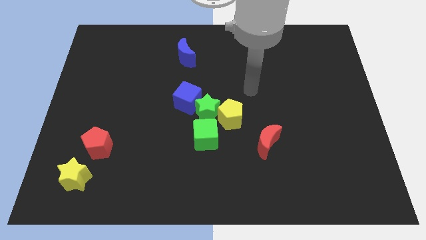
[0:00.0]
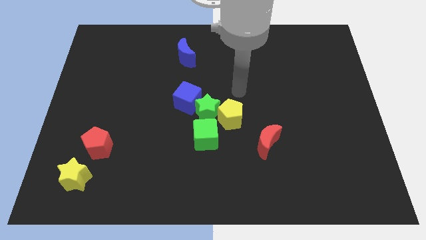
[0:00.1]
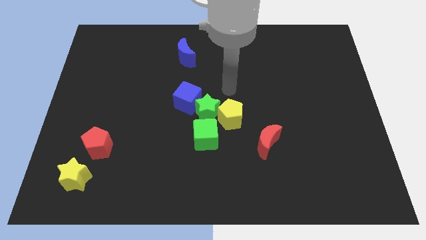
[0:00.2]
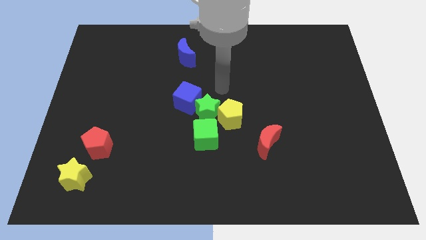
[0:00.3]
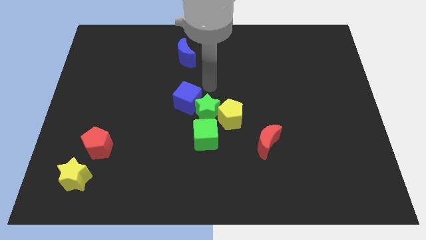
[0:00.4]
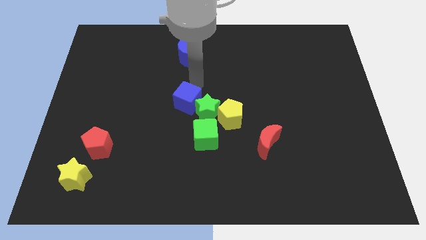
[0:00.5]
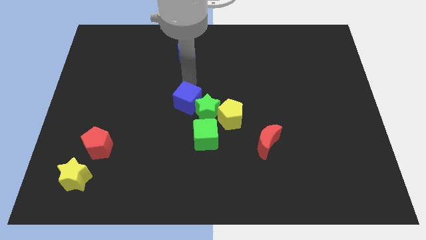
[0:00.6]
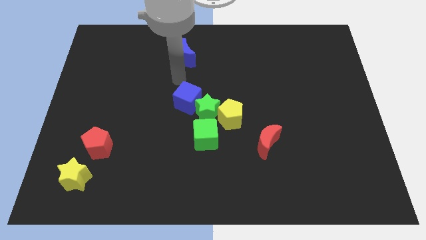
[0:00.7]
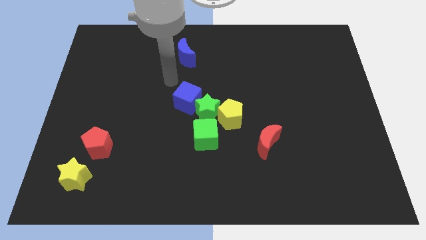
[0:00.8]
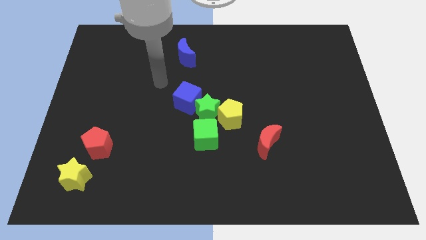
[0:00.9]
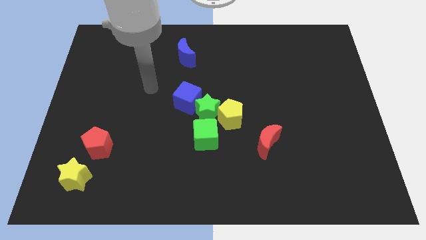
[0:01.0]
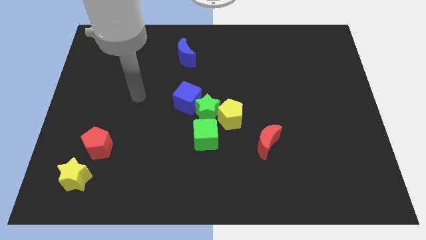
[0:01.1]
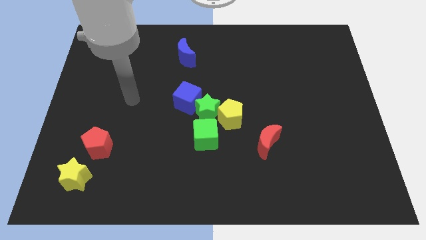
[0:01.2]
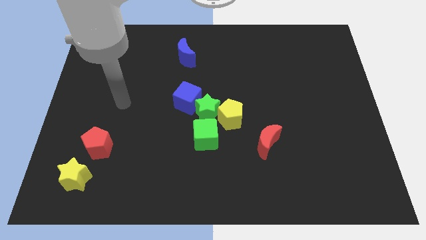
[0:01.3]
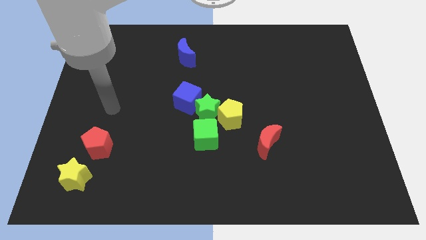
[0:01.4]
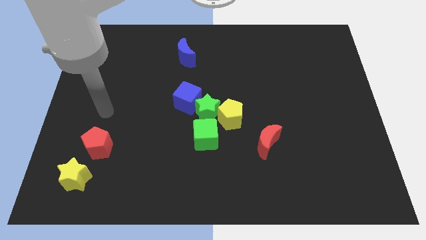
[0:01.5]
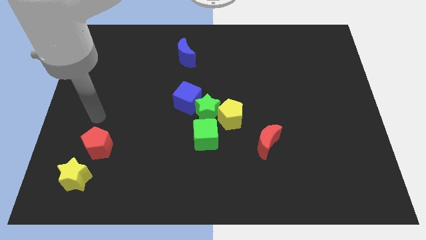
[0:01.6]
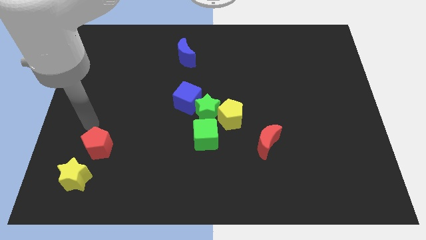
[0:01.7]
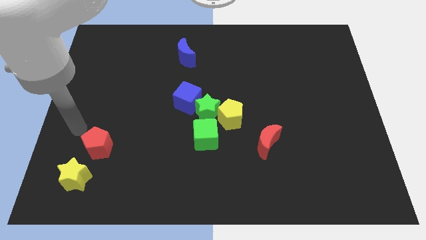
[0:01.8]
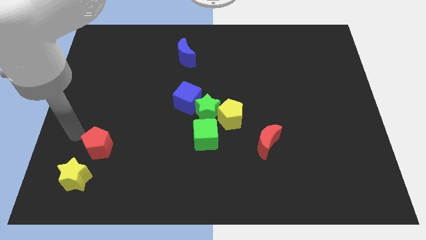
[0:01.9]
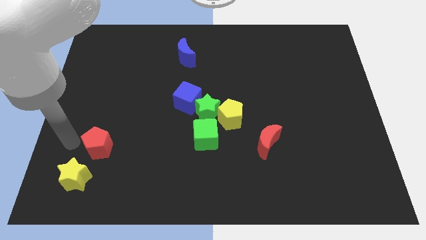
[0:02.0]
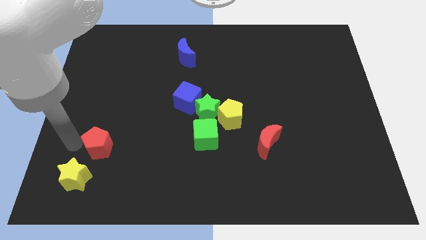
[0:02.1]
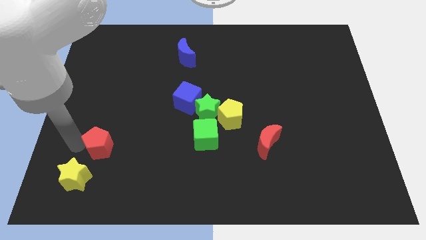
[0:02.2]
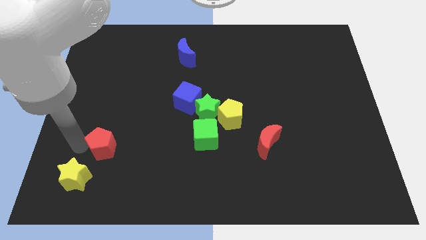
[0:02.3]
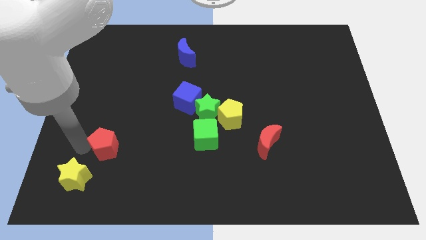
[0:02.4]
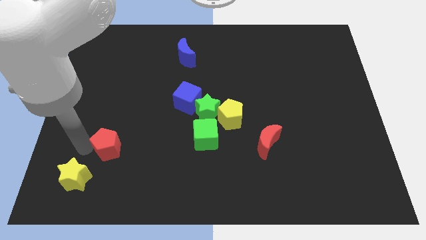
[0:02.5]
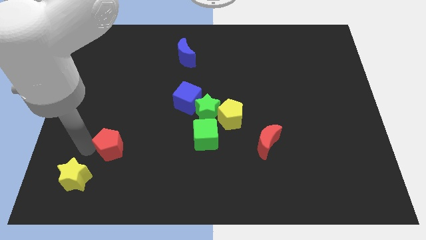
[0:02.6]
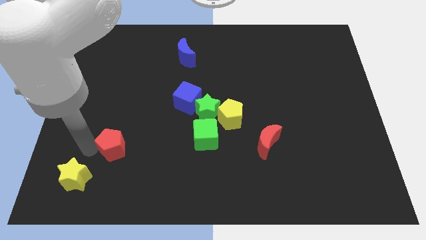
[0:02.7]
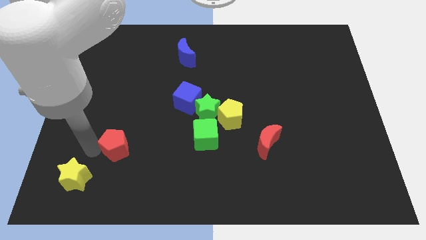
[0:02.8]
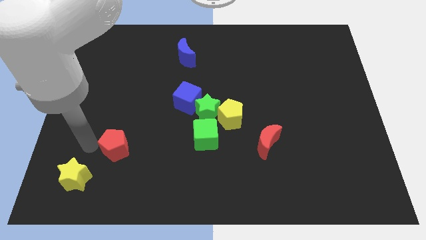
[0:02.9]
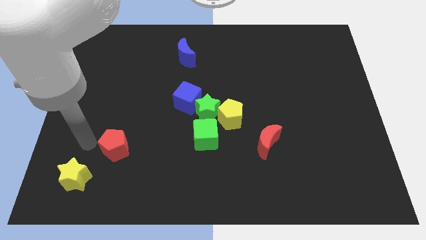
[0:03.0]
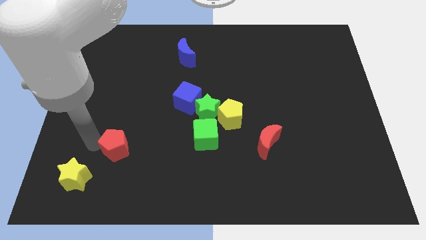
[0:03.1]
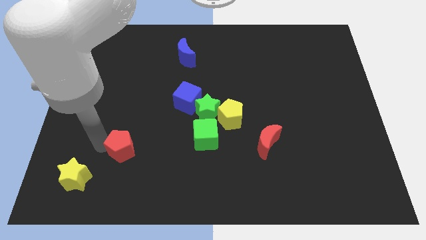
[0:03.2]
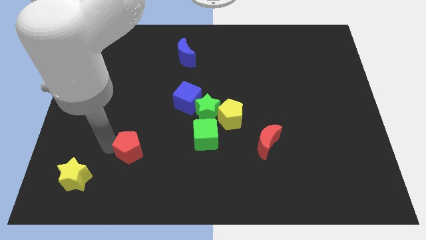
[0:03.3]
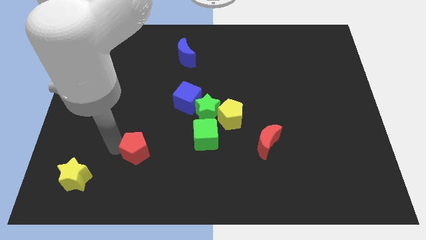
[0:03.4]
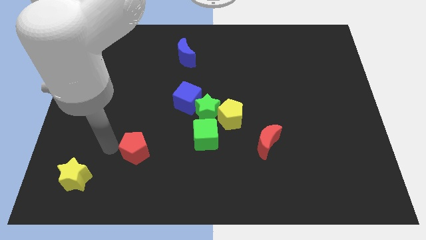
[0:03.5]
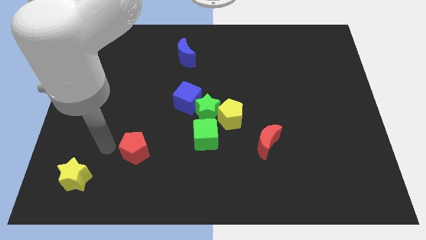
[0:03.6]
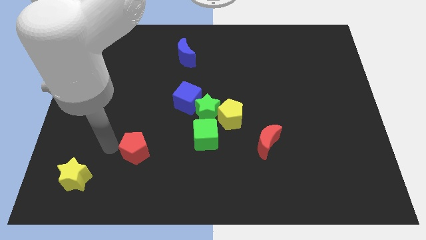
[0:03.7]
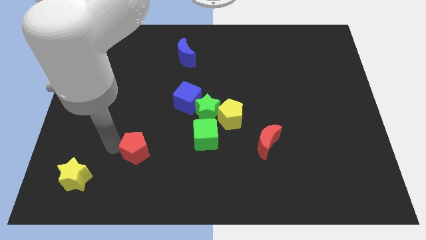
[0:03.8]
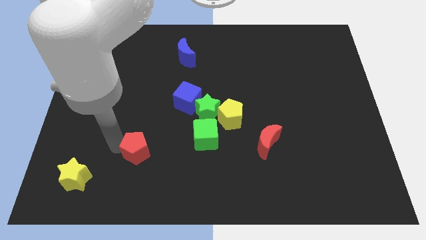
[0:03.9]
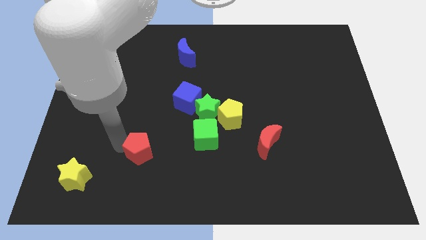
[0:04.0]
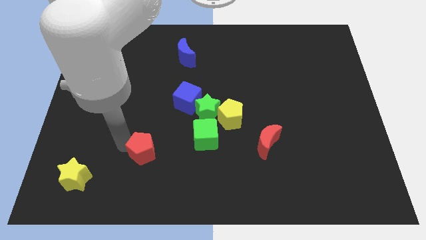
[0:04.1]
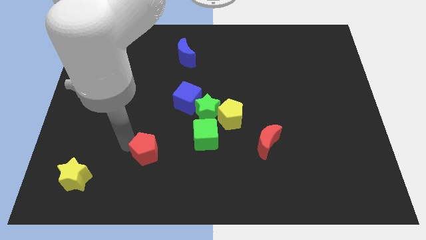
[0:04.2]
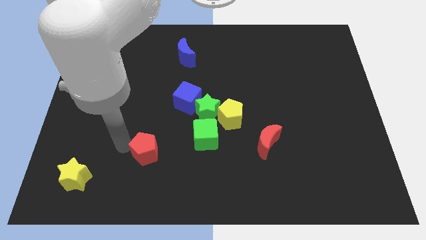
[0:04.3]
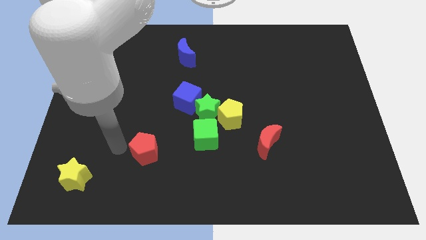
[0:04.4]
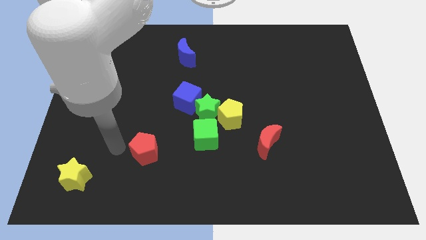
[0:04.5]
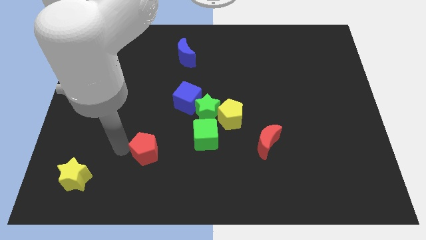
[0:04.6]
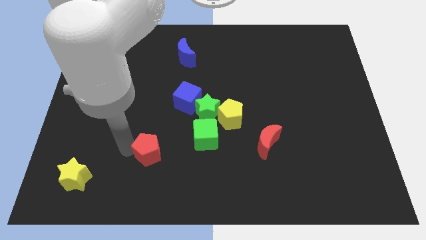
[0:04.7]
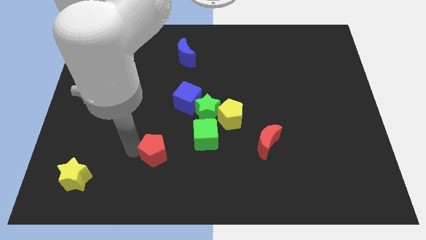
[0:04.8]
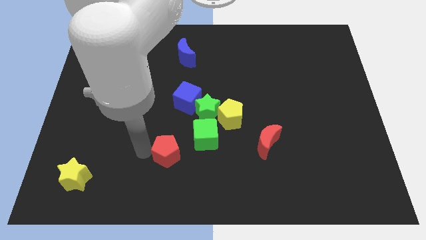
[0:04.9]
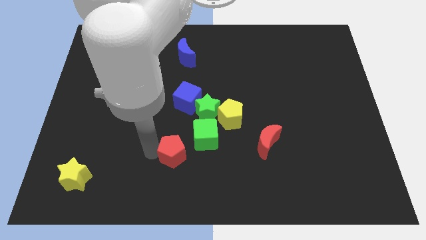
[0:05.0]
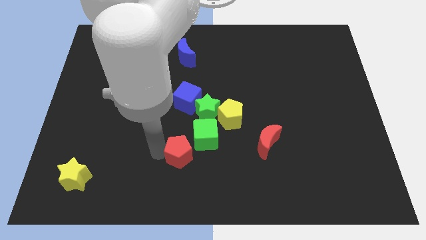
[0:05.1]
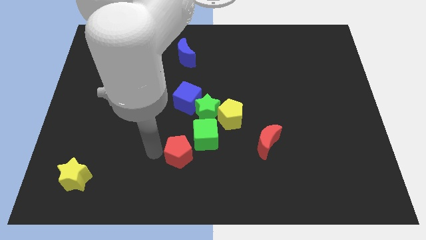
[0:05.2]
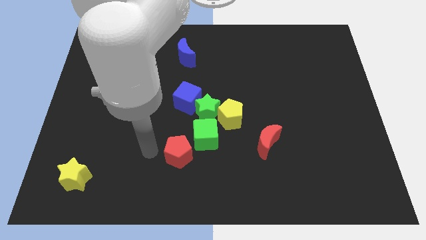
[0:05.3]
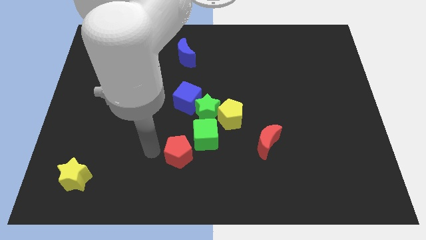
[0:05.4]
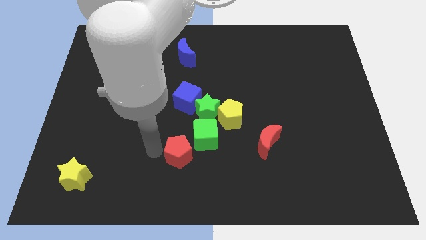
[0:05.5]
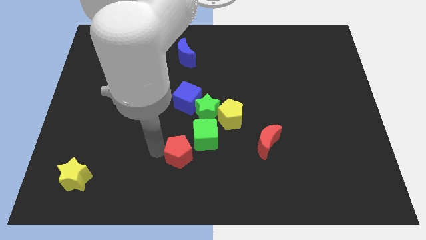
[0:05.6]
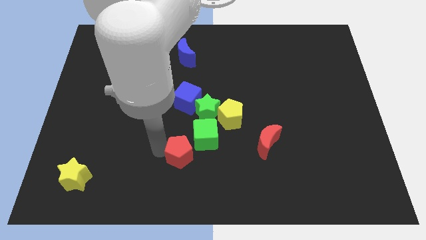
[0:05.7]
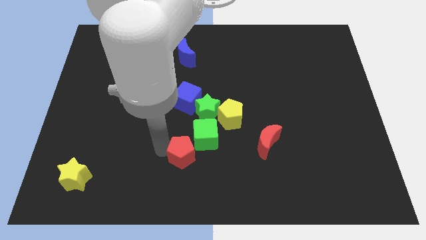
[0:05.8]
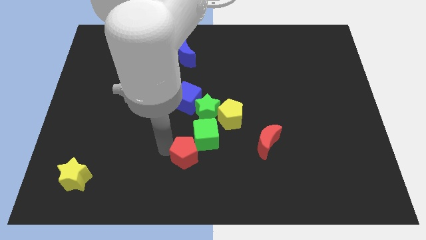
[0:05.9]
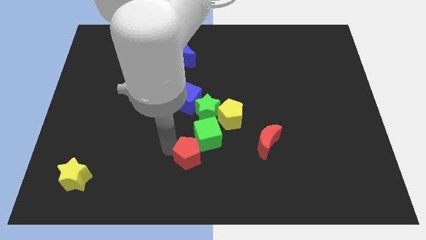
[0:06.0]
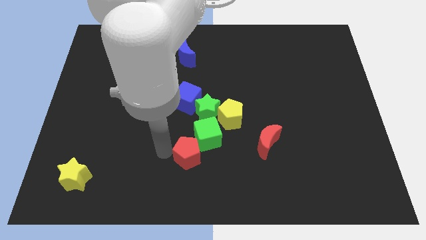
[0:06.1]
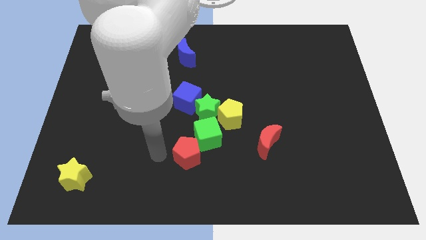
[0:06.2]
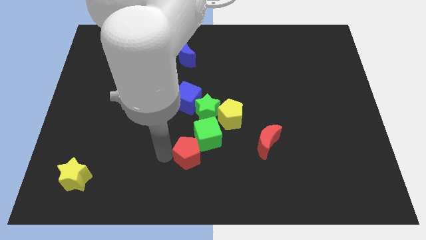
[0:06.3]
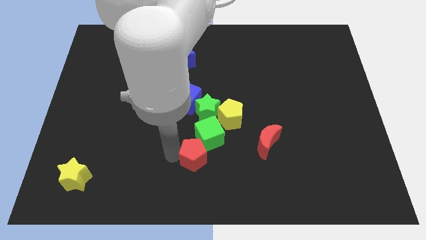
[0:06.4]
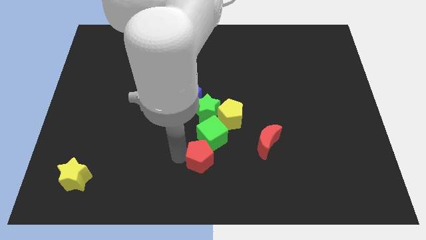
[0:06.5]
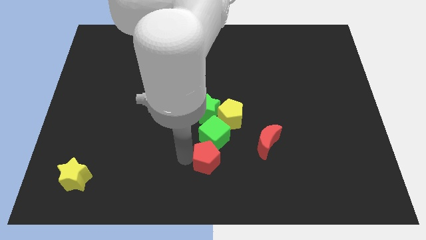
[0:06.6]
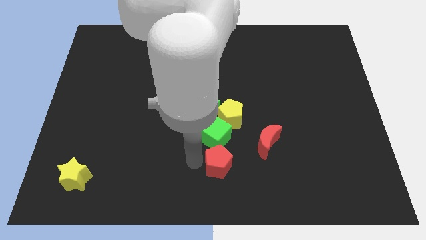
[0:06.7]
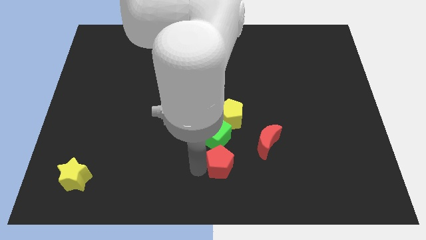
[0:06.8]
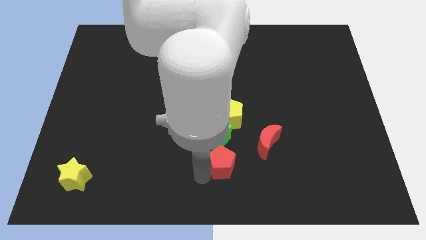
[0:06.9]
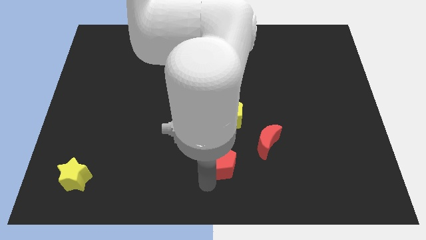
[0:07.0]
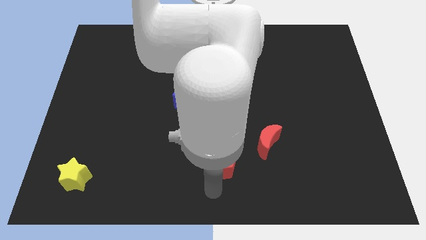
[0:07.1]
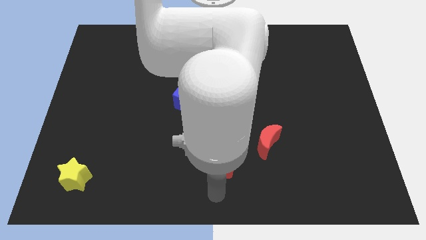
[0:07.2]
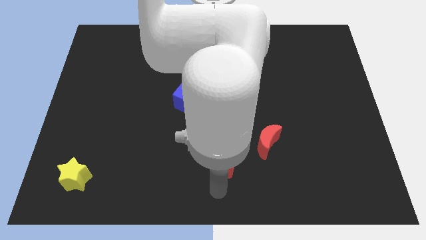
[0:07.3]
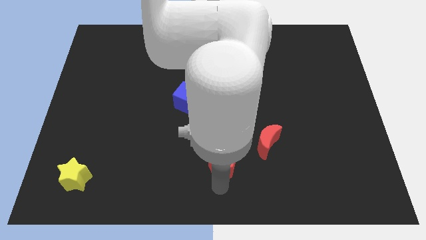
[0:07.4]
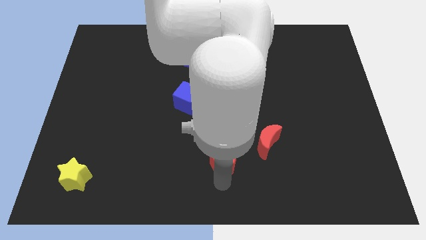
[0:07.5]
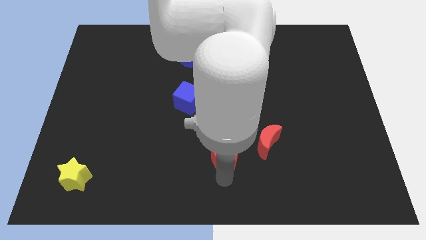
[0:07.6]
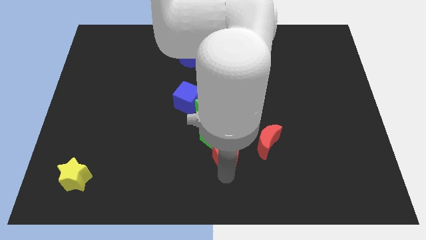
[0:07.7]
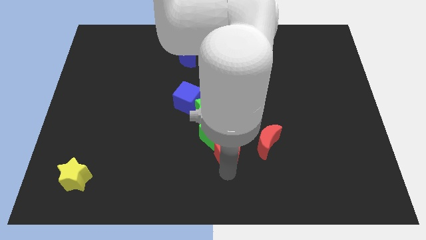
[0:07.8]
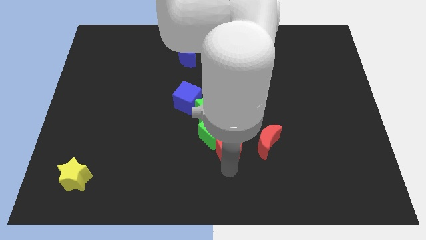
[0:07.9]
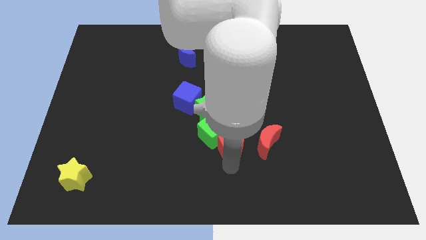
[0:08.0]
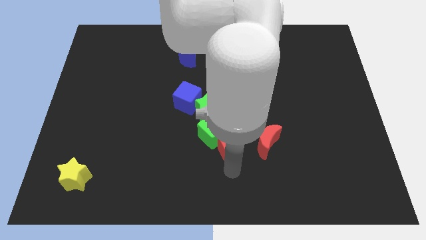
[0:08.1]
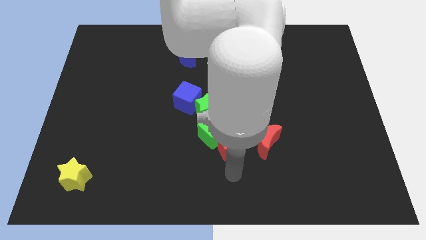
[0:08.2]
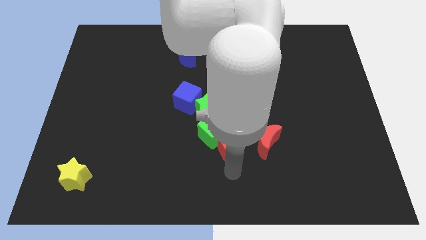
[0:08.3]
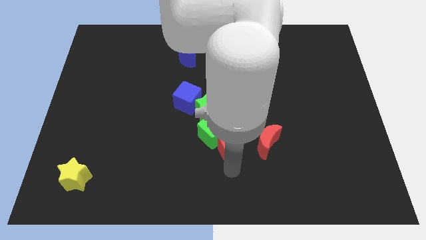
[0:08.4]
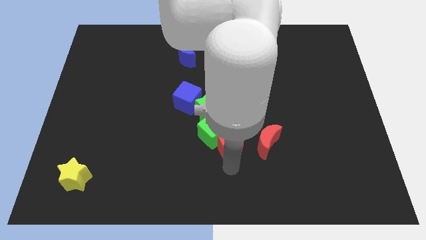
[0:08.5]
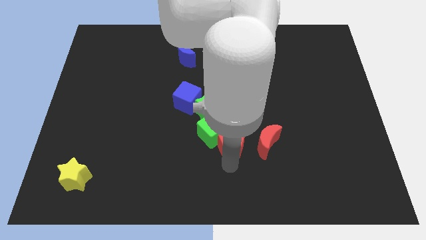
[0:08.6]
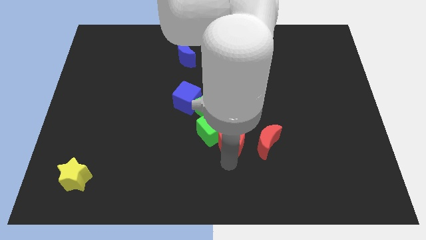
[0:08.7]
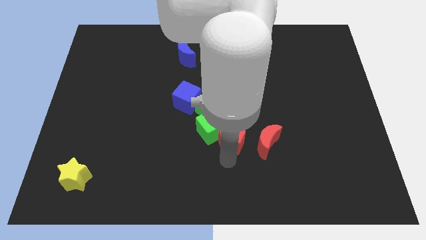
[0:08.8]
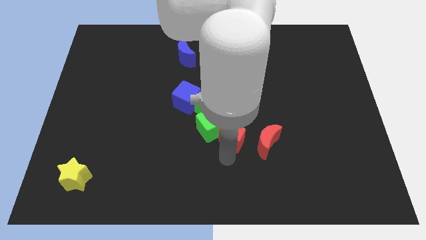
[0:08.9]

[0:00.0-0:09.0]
push the red pentagon towards the yellow pentagon
